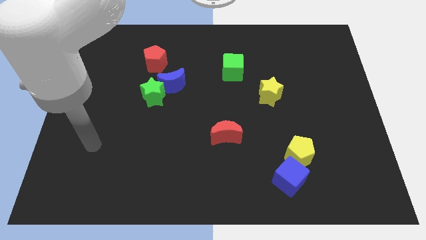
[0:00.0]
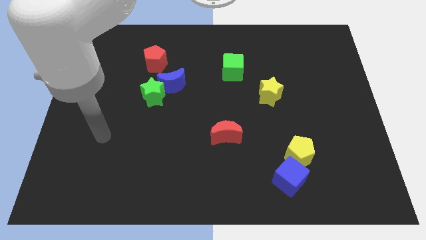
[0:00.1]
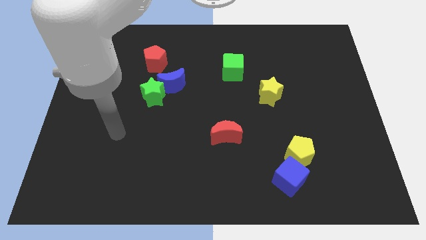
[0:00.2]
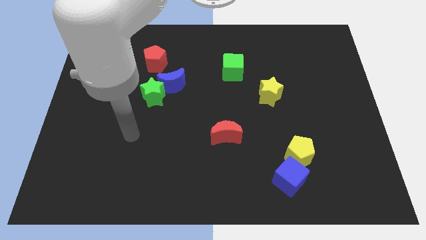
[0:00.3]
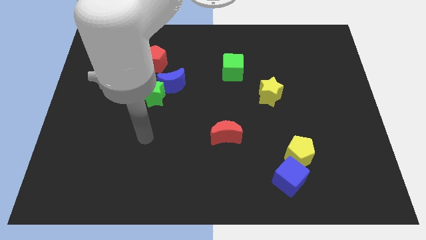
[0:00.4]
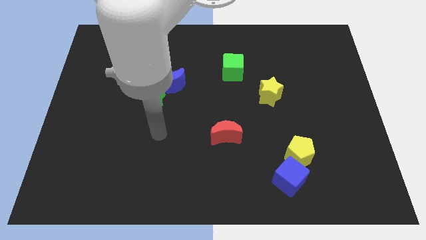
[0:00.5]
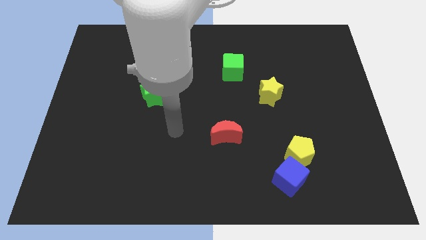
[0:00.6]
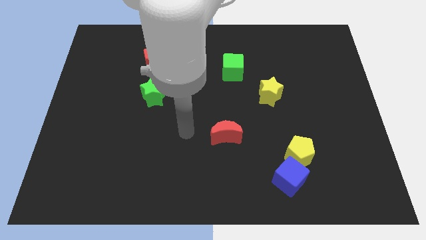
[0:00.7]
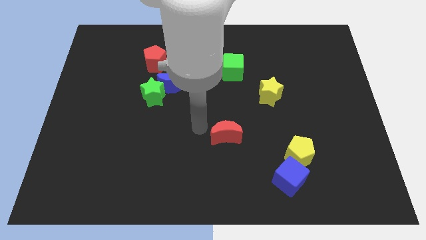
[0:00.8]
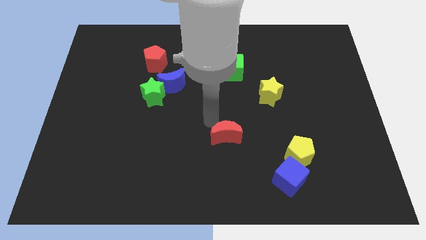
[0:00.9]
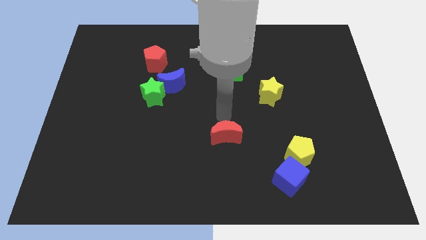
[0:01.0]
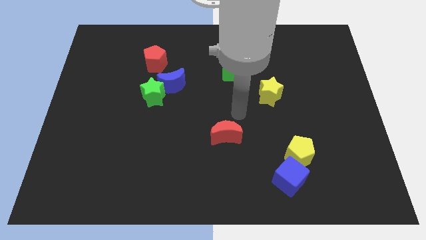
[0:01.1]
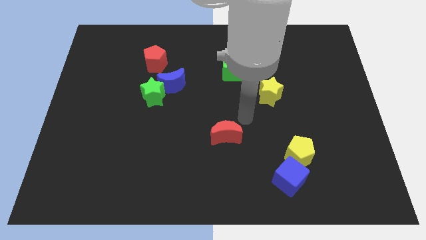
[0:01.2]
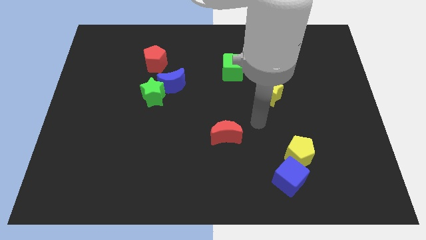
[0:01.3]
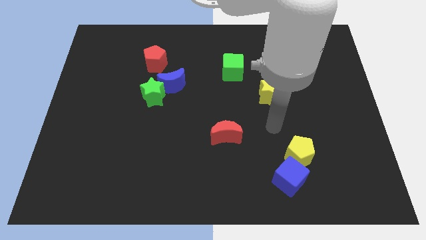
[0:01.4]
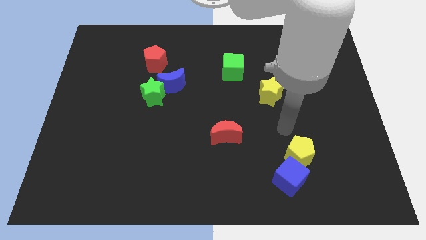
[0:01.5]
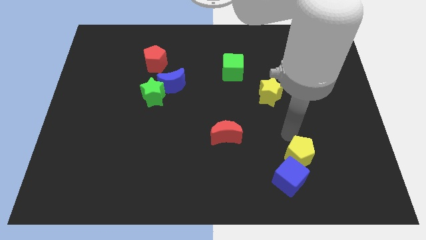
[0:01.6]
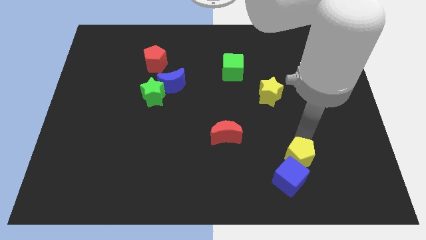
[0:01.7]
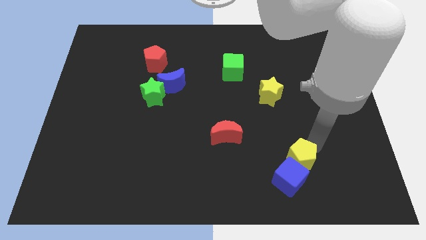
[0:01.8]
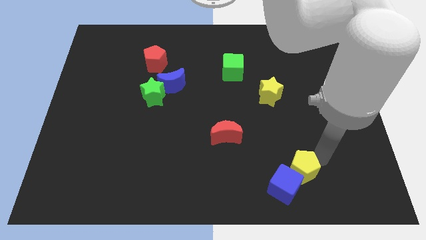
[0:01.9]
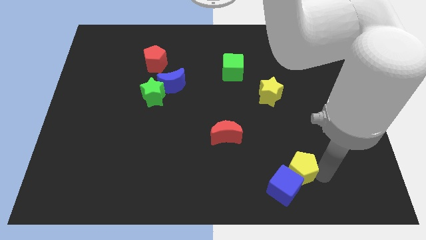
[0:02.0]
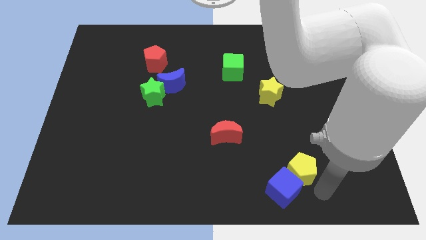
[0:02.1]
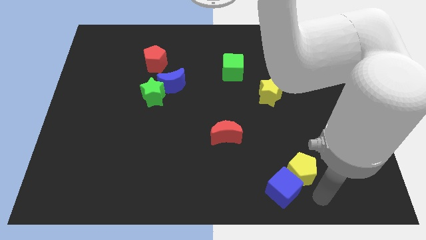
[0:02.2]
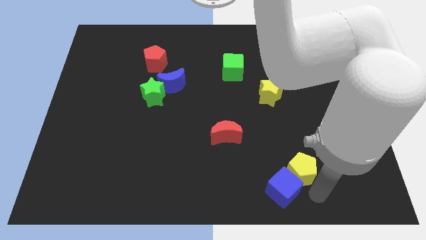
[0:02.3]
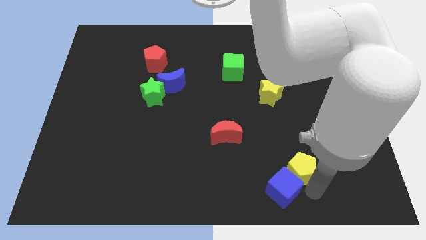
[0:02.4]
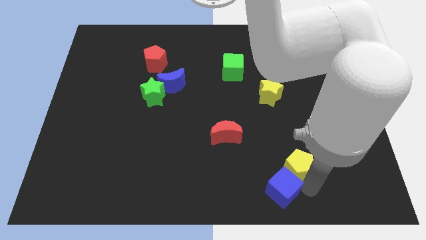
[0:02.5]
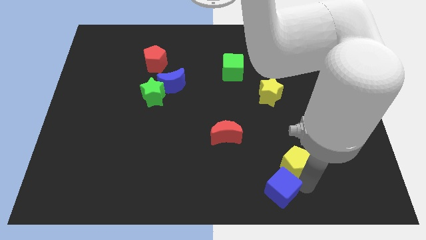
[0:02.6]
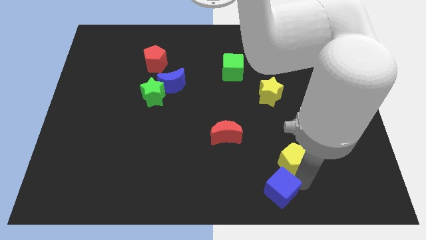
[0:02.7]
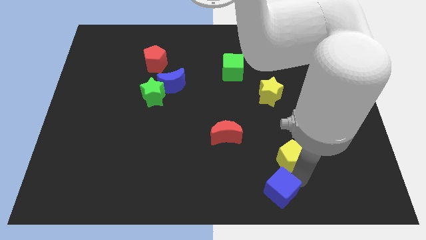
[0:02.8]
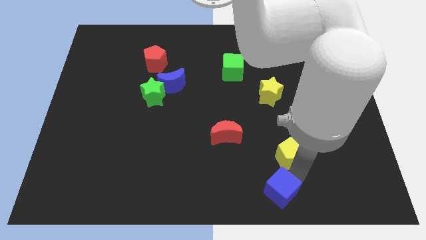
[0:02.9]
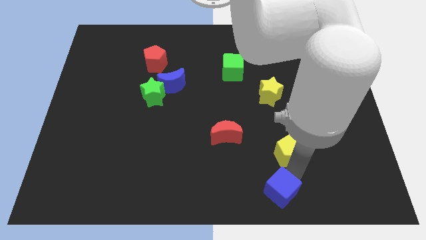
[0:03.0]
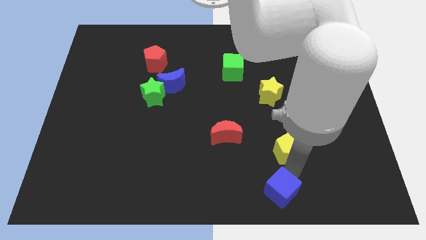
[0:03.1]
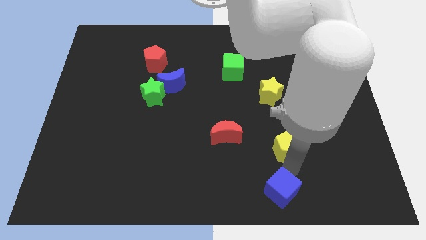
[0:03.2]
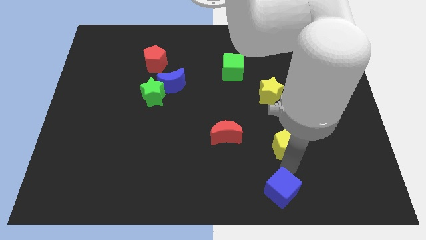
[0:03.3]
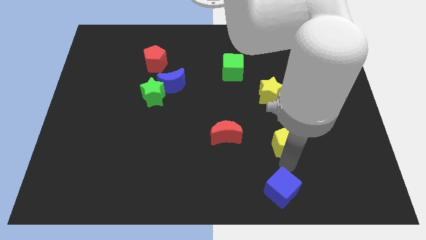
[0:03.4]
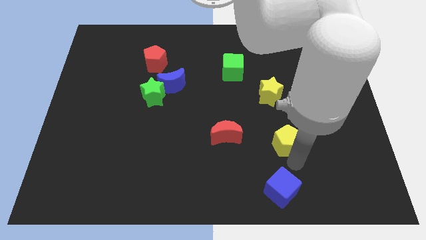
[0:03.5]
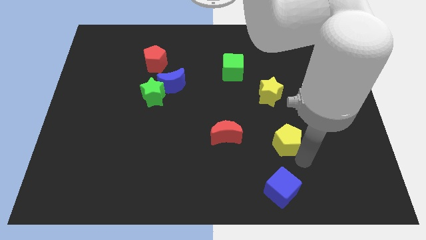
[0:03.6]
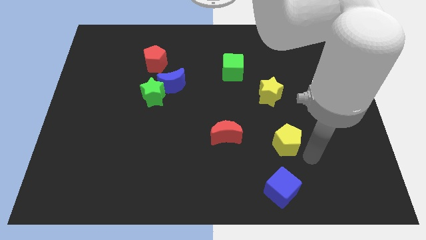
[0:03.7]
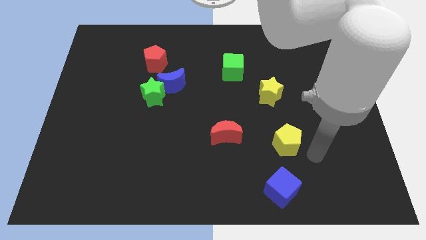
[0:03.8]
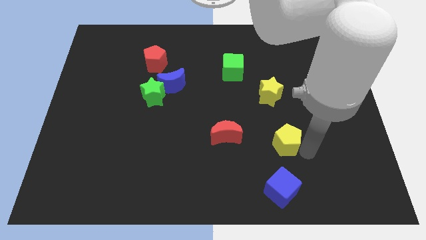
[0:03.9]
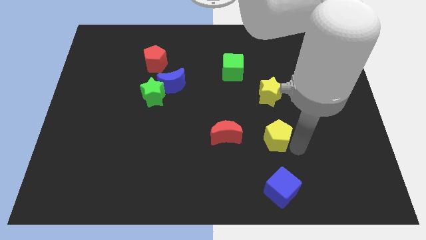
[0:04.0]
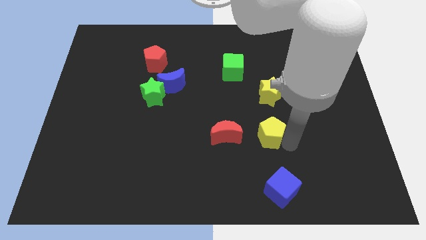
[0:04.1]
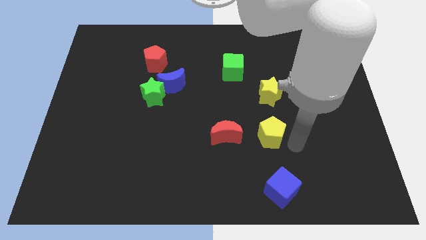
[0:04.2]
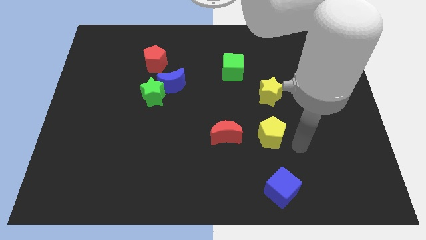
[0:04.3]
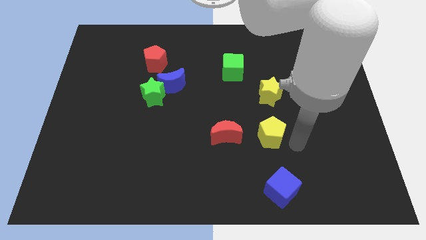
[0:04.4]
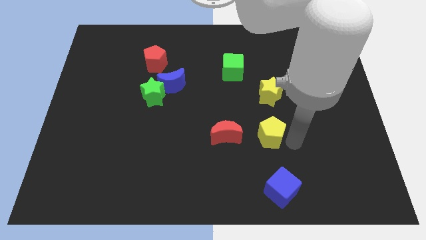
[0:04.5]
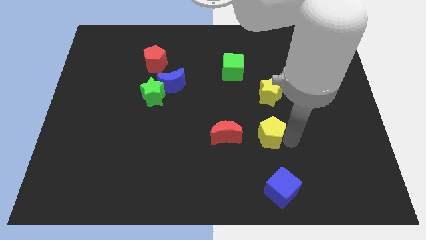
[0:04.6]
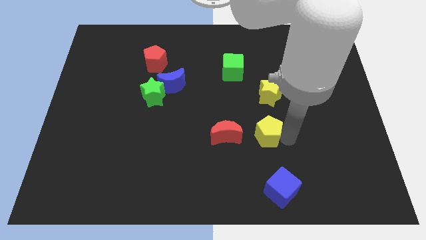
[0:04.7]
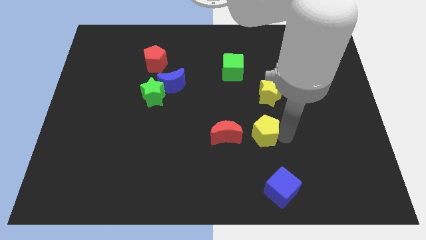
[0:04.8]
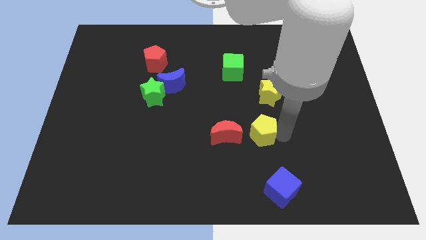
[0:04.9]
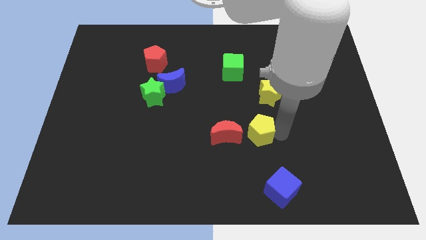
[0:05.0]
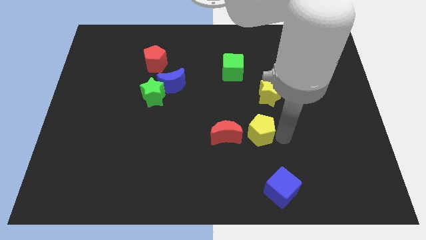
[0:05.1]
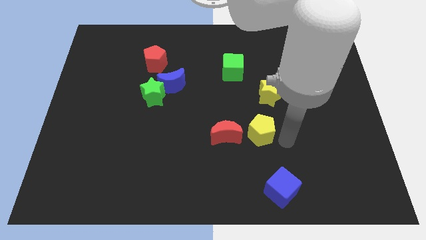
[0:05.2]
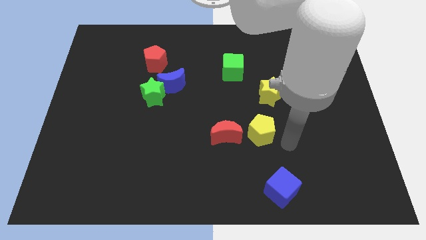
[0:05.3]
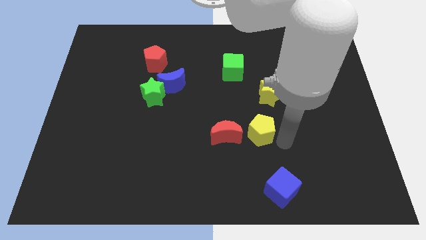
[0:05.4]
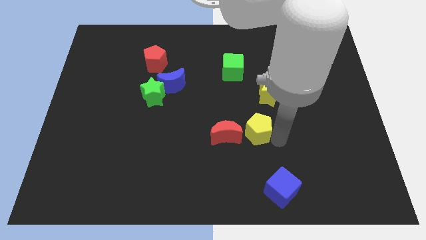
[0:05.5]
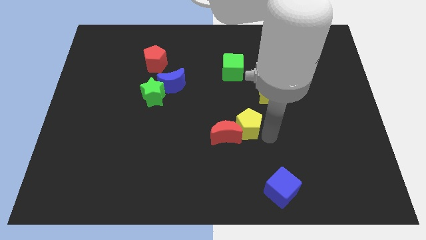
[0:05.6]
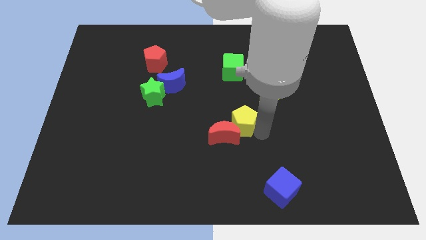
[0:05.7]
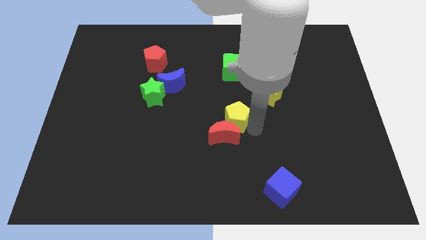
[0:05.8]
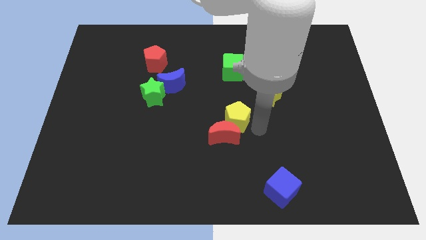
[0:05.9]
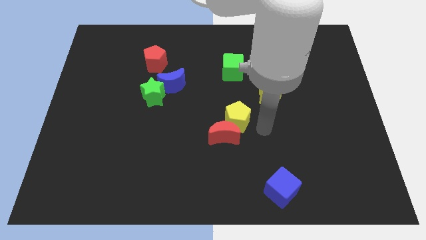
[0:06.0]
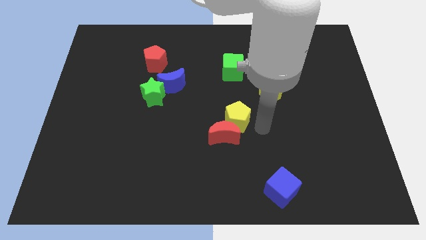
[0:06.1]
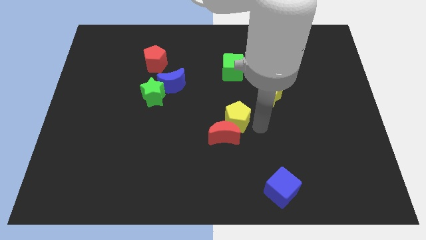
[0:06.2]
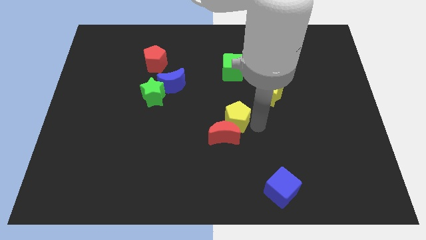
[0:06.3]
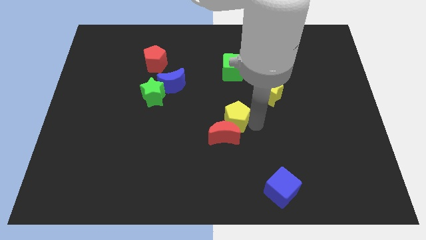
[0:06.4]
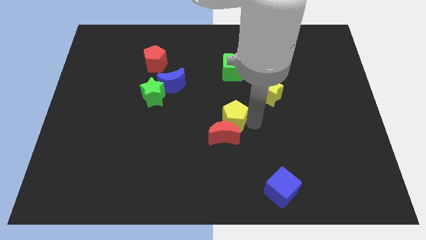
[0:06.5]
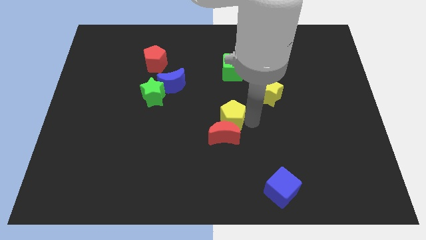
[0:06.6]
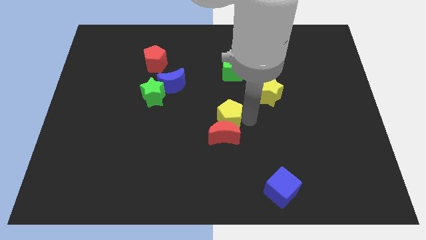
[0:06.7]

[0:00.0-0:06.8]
slide the yellow pentagon to the top left side of the red moon

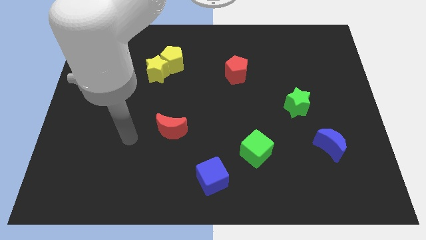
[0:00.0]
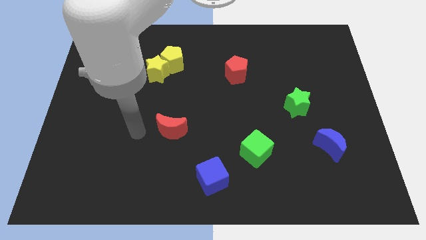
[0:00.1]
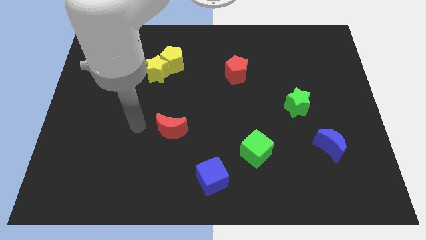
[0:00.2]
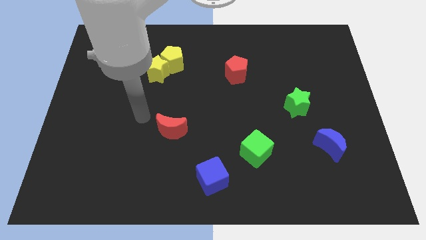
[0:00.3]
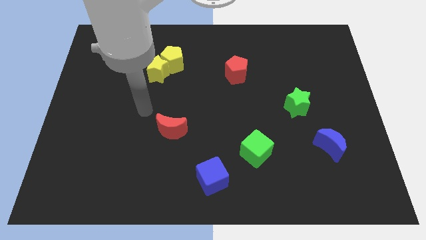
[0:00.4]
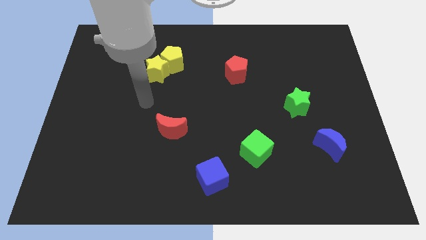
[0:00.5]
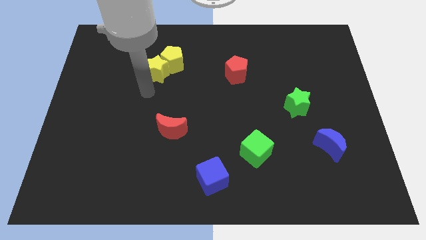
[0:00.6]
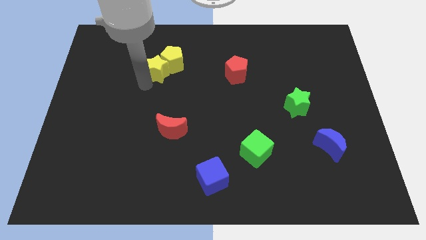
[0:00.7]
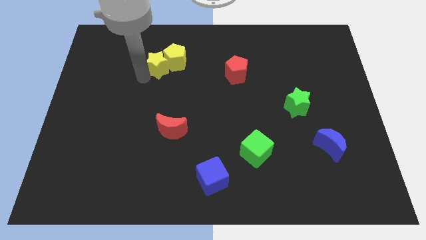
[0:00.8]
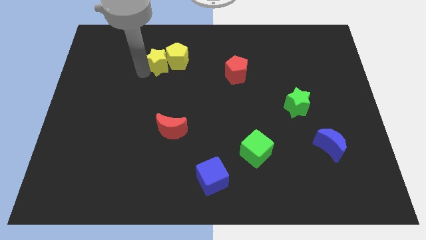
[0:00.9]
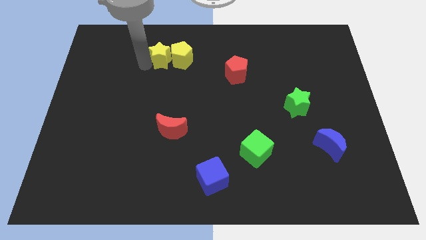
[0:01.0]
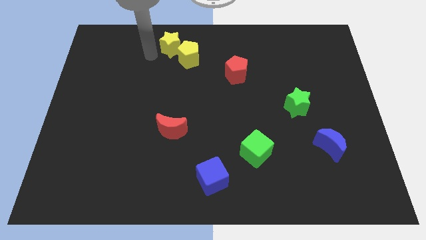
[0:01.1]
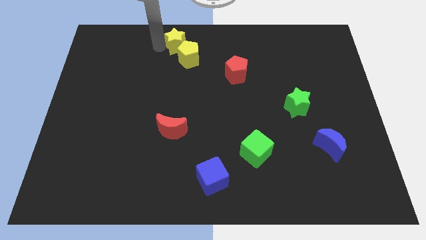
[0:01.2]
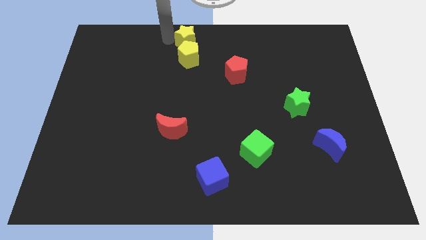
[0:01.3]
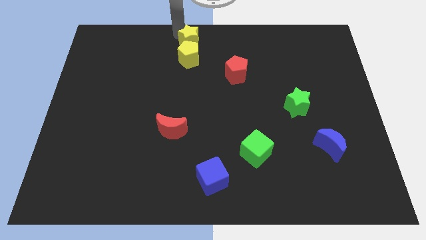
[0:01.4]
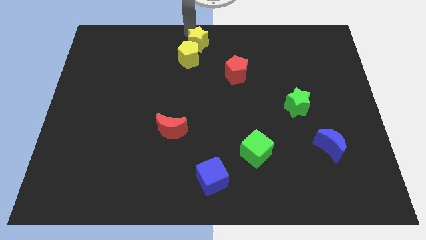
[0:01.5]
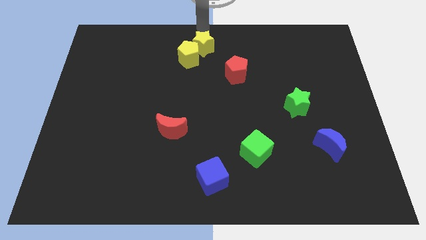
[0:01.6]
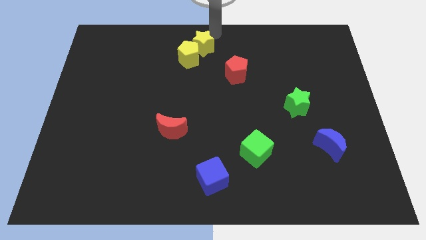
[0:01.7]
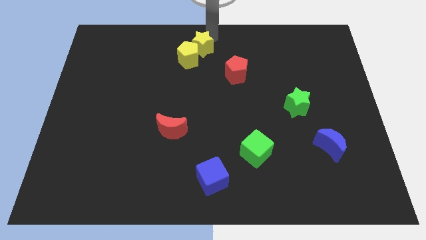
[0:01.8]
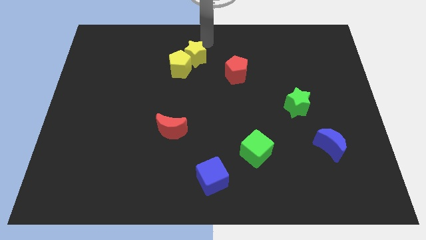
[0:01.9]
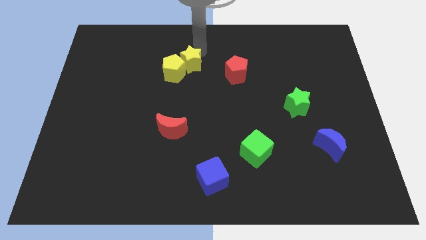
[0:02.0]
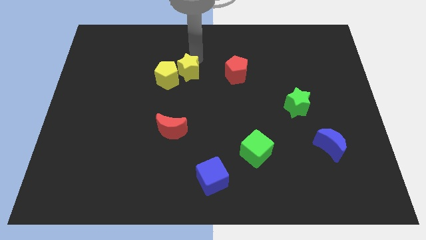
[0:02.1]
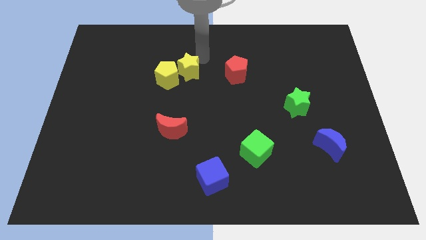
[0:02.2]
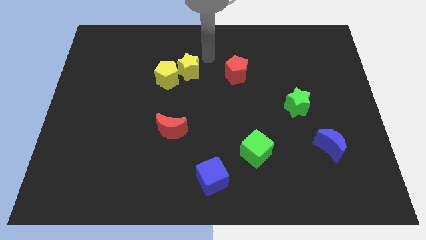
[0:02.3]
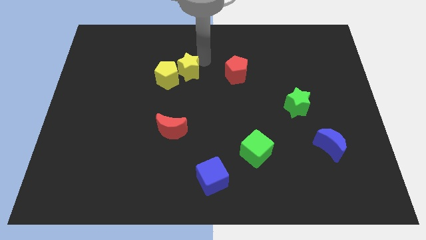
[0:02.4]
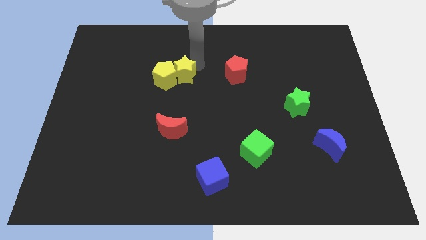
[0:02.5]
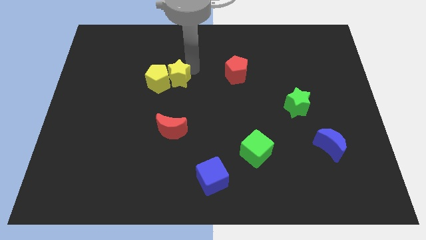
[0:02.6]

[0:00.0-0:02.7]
slide the yellow star to the top side of the red moon
